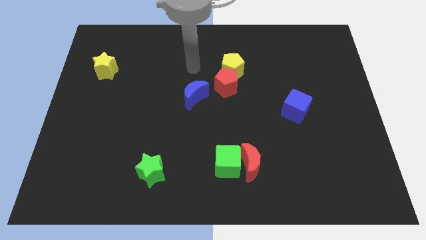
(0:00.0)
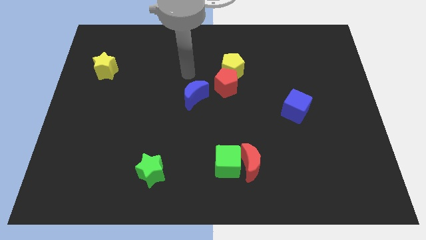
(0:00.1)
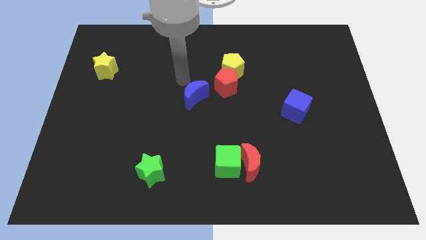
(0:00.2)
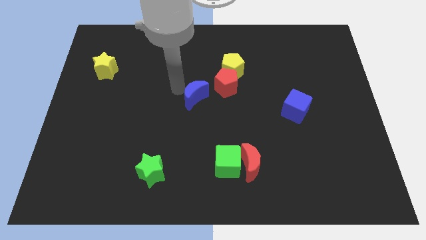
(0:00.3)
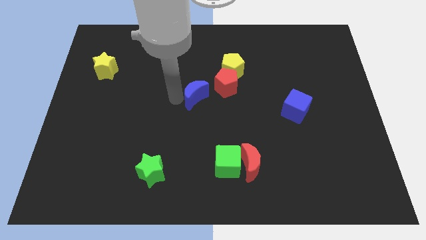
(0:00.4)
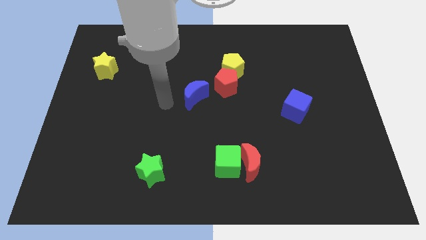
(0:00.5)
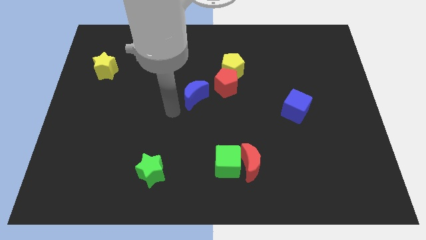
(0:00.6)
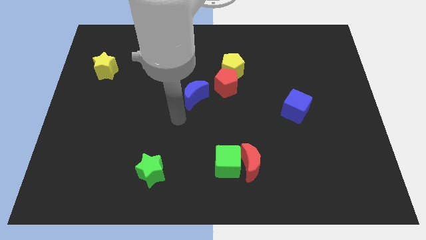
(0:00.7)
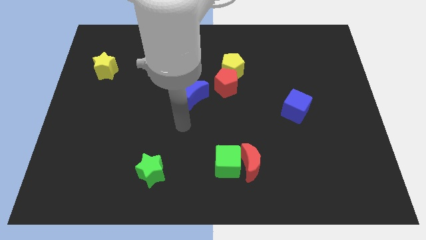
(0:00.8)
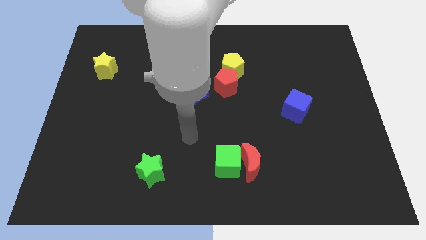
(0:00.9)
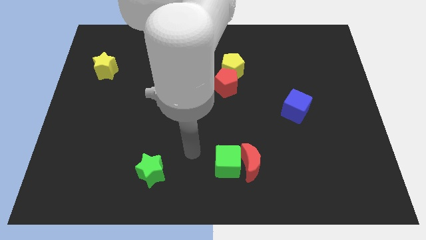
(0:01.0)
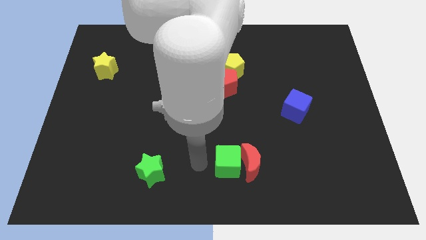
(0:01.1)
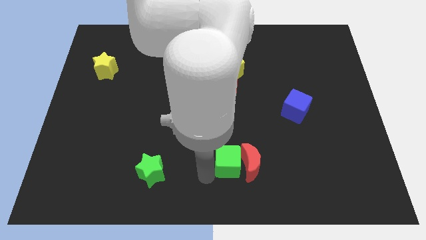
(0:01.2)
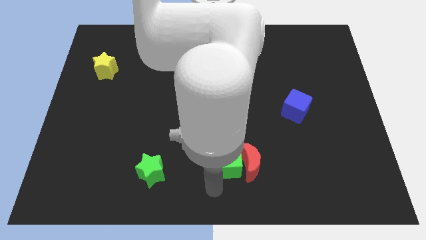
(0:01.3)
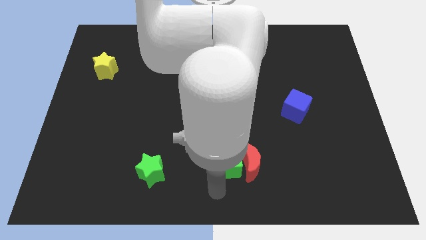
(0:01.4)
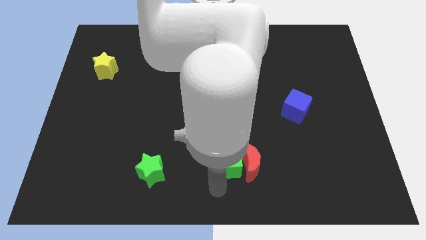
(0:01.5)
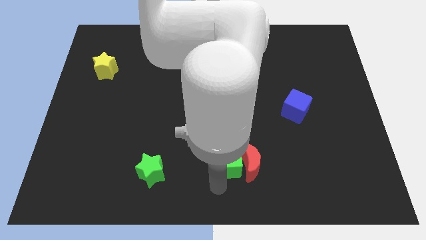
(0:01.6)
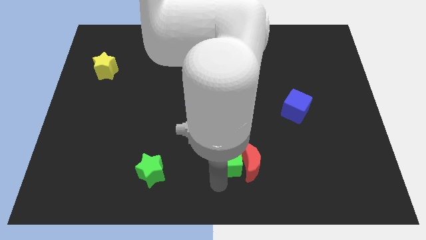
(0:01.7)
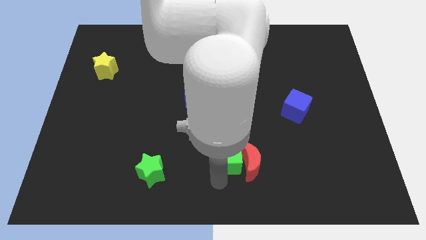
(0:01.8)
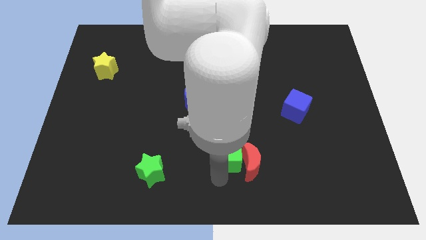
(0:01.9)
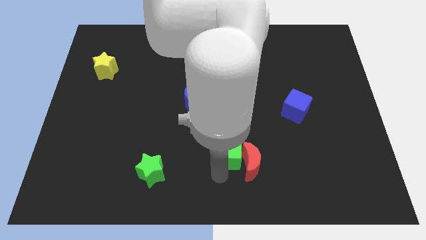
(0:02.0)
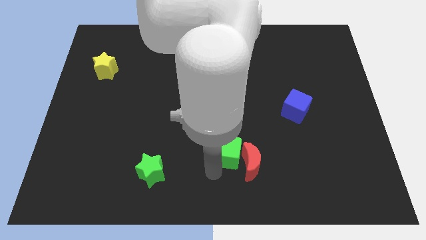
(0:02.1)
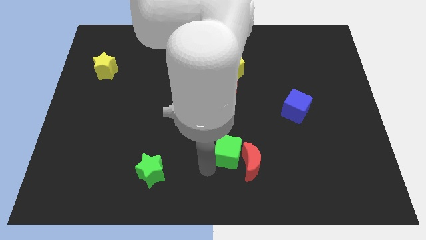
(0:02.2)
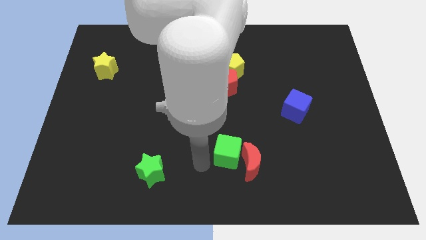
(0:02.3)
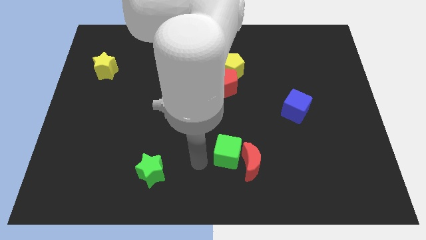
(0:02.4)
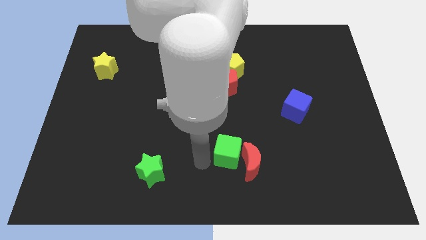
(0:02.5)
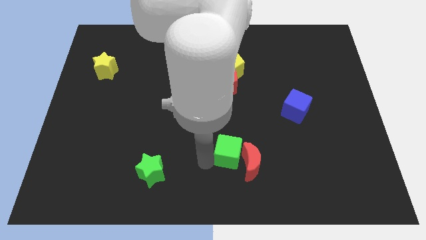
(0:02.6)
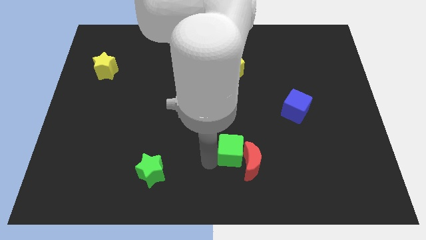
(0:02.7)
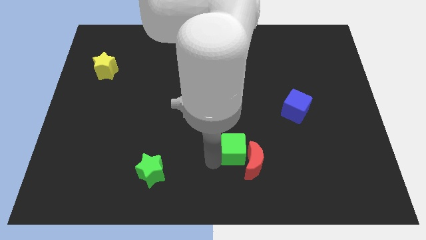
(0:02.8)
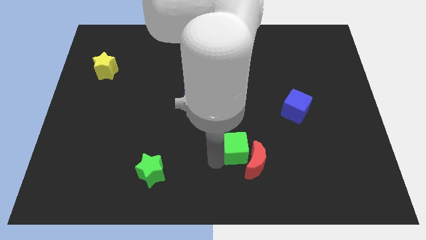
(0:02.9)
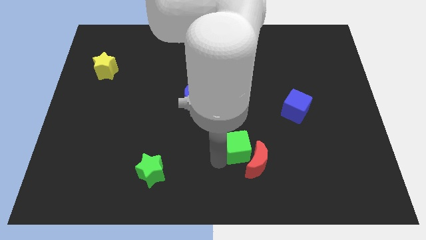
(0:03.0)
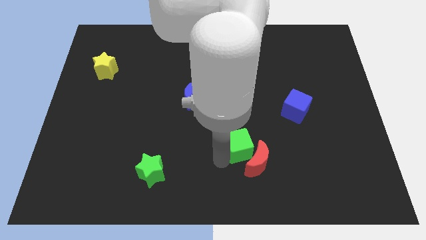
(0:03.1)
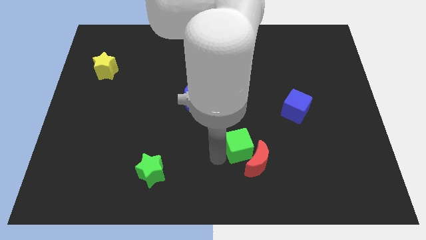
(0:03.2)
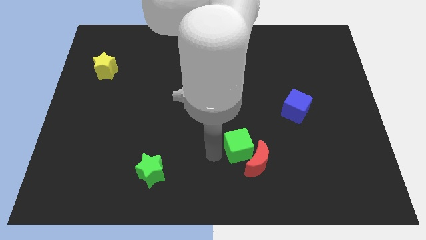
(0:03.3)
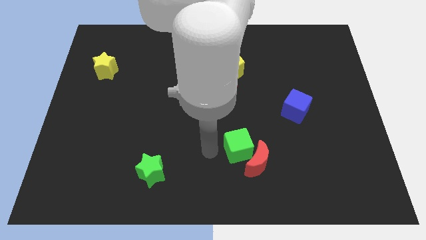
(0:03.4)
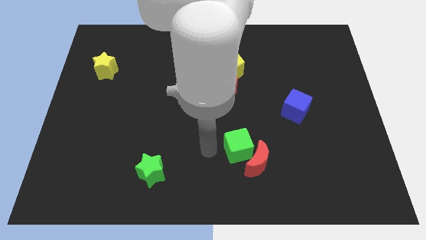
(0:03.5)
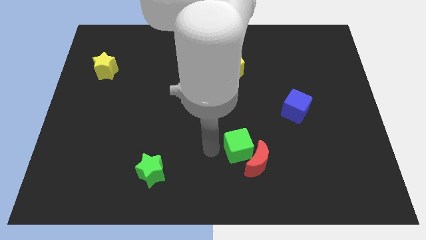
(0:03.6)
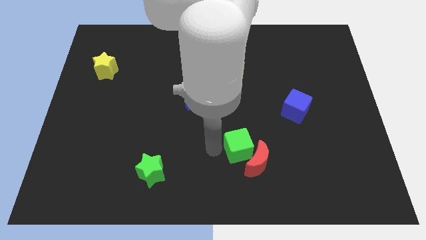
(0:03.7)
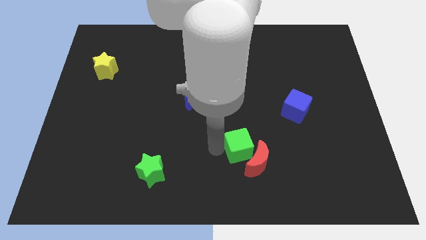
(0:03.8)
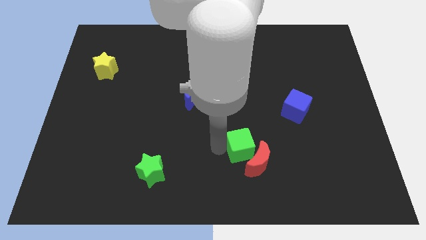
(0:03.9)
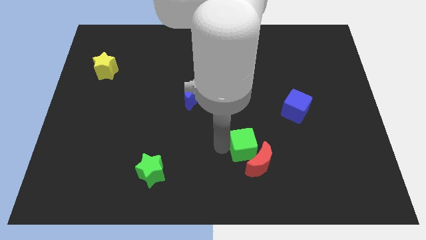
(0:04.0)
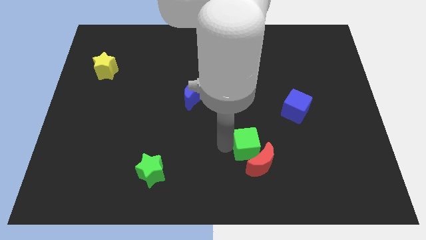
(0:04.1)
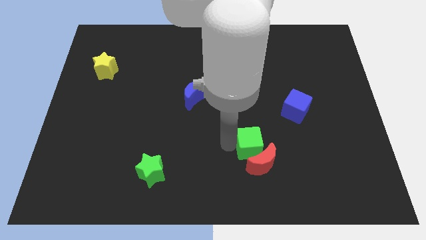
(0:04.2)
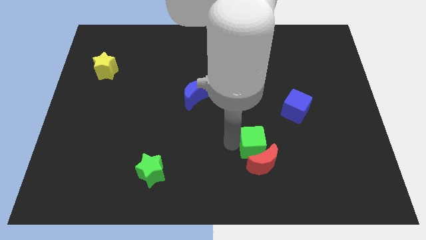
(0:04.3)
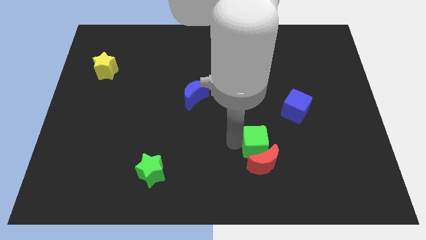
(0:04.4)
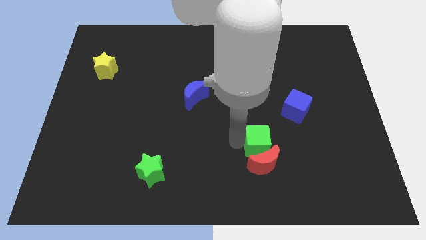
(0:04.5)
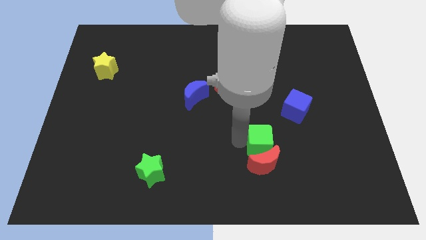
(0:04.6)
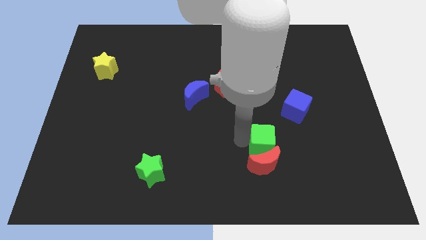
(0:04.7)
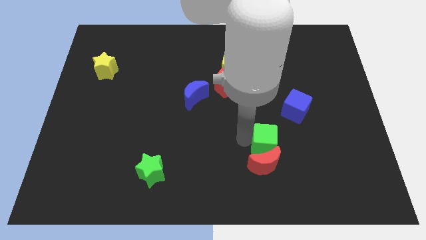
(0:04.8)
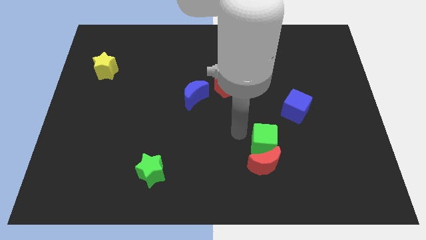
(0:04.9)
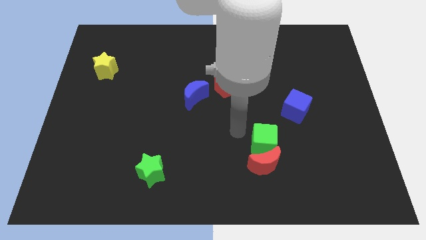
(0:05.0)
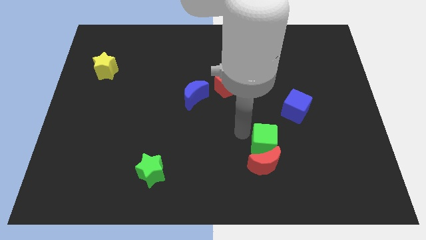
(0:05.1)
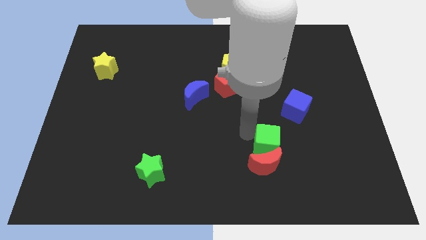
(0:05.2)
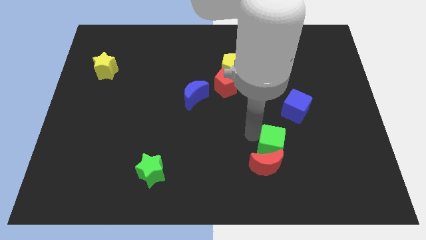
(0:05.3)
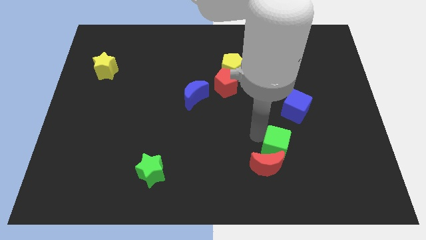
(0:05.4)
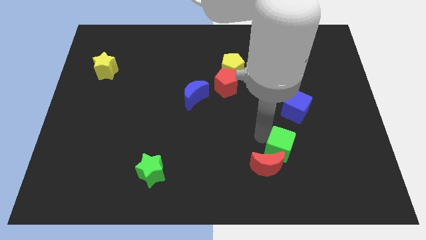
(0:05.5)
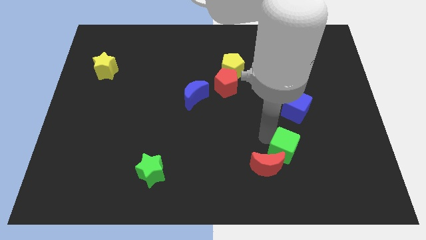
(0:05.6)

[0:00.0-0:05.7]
move the green cube to the right side of the red moon

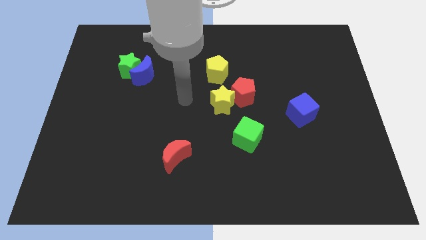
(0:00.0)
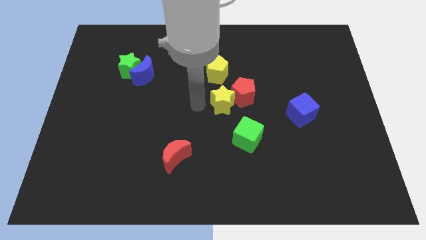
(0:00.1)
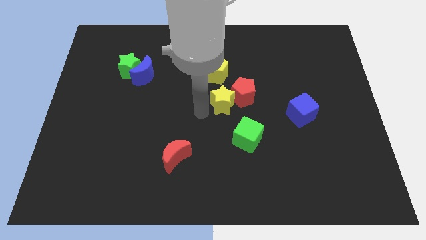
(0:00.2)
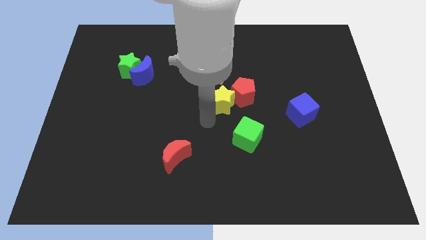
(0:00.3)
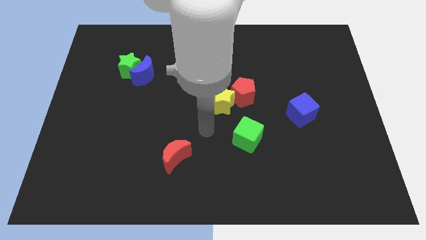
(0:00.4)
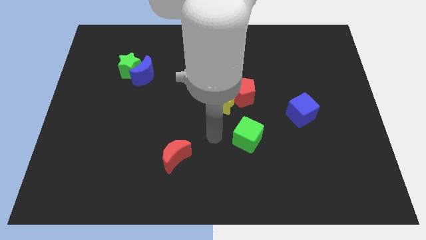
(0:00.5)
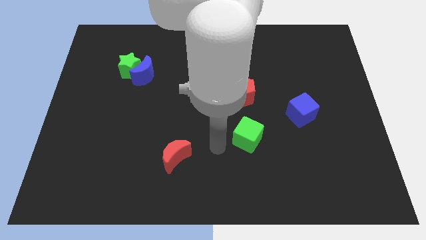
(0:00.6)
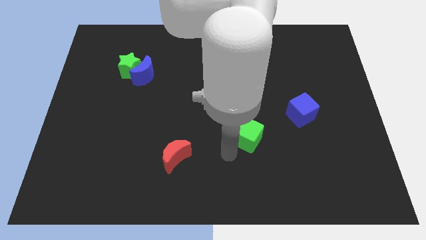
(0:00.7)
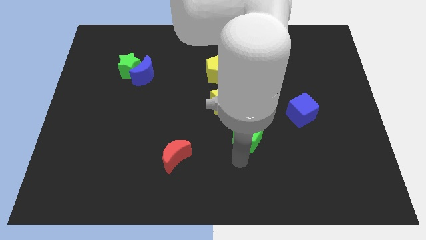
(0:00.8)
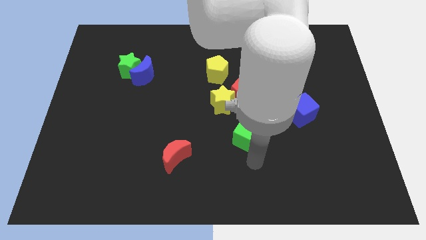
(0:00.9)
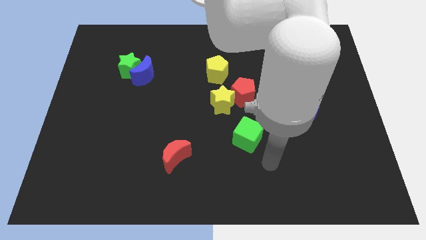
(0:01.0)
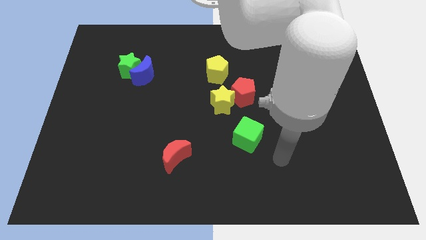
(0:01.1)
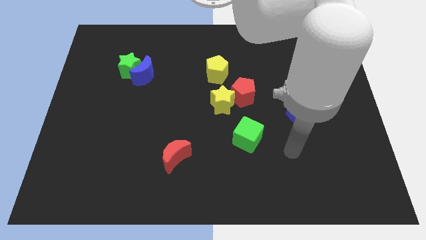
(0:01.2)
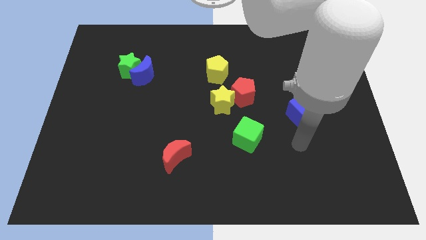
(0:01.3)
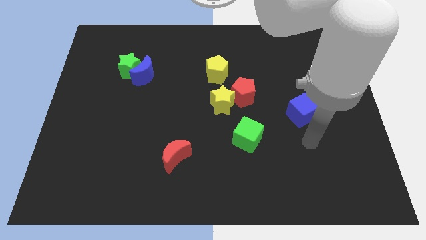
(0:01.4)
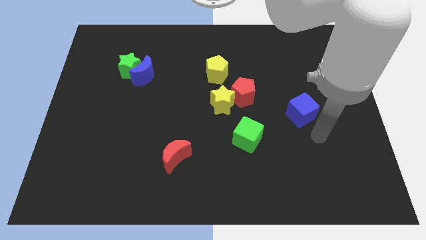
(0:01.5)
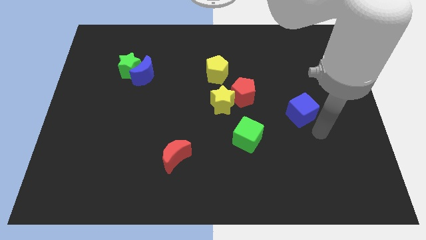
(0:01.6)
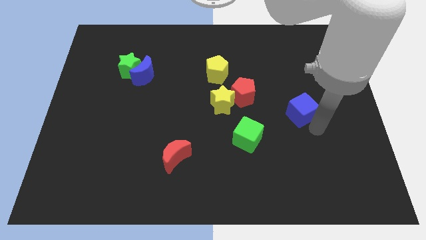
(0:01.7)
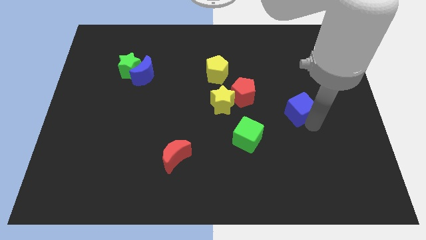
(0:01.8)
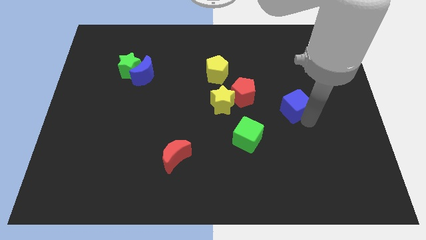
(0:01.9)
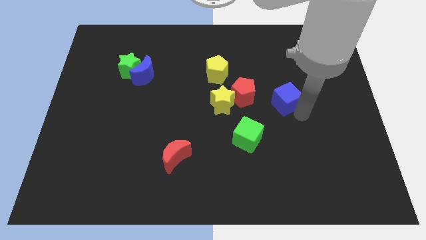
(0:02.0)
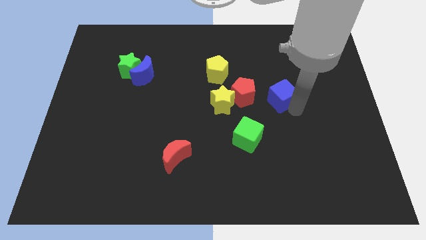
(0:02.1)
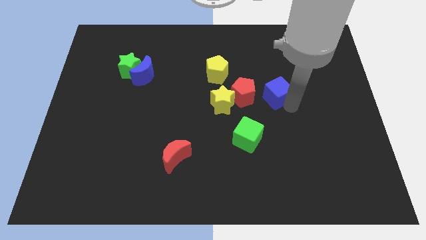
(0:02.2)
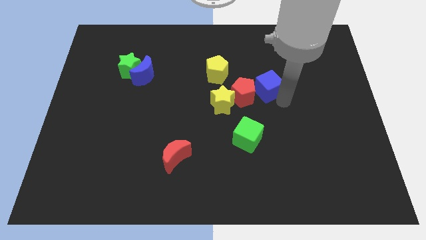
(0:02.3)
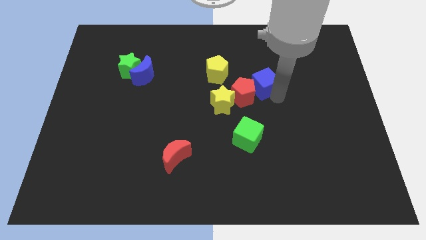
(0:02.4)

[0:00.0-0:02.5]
slide the blue cube just right of the yellow pentagon
